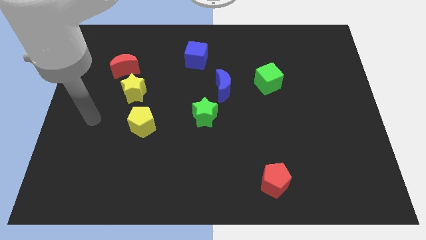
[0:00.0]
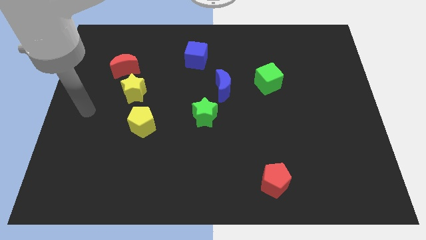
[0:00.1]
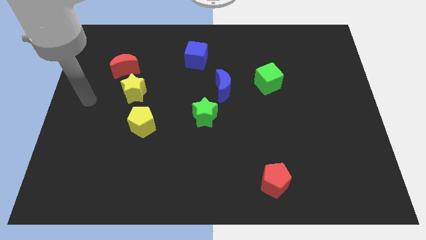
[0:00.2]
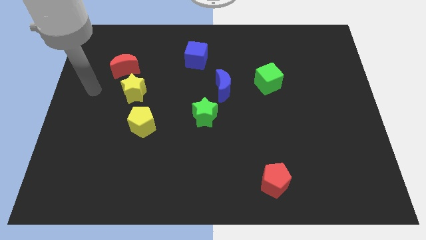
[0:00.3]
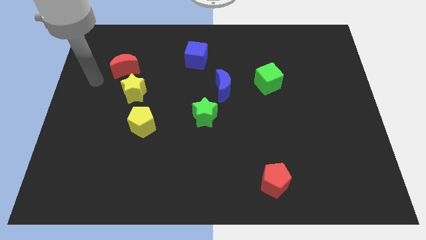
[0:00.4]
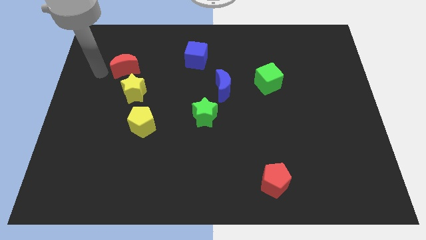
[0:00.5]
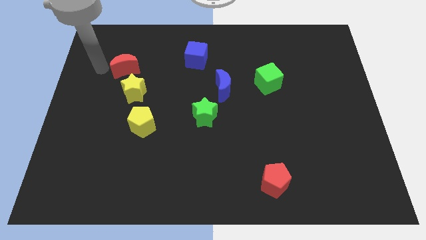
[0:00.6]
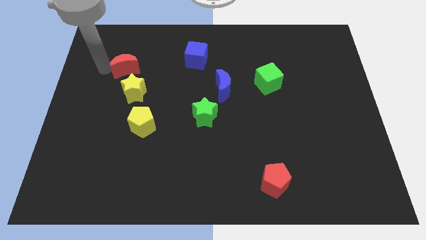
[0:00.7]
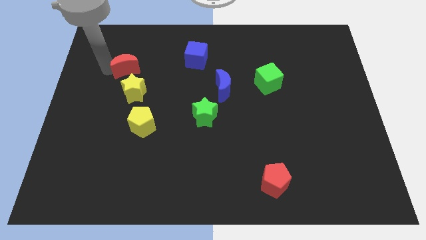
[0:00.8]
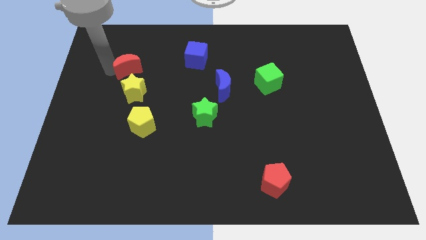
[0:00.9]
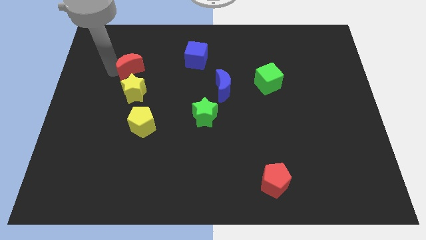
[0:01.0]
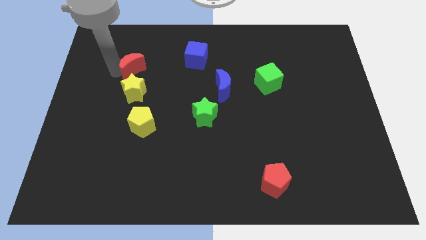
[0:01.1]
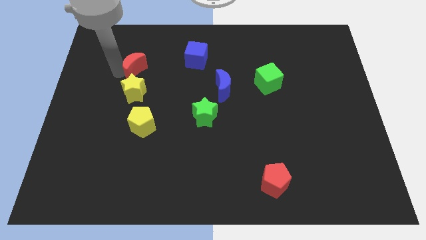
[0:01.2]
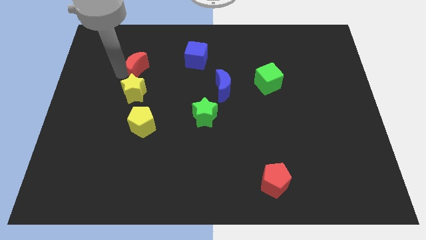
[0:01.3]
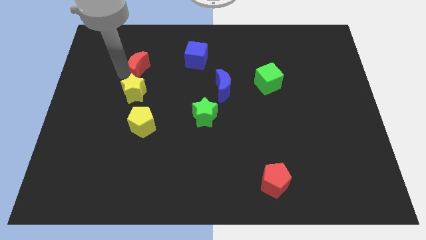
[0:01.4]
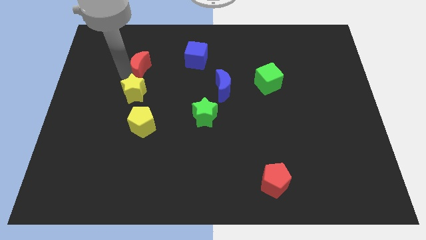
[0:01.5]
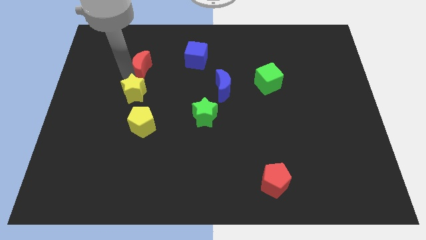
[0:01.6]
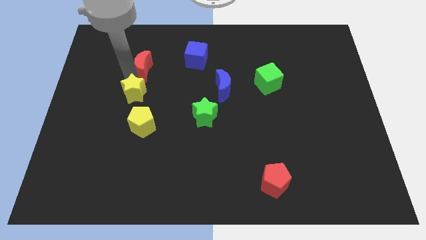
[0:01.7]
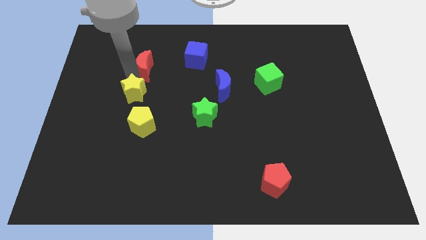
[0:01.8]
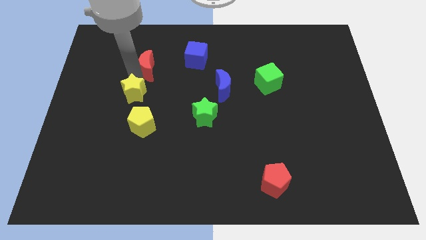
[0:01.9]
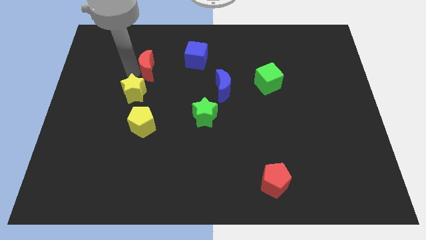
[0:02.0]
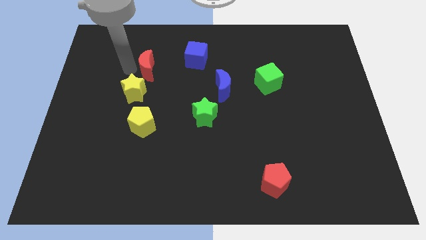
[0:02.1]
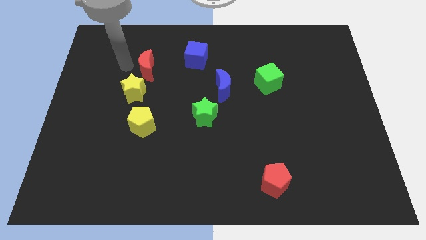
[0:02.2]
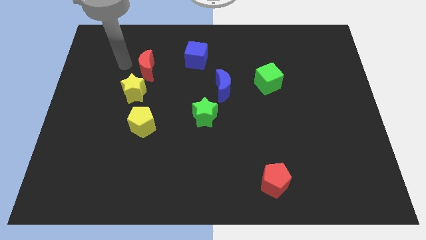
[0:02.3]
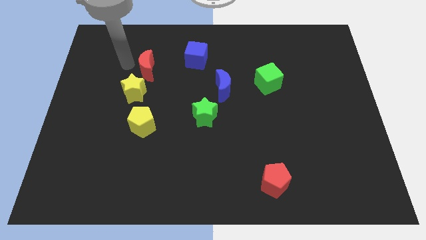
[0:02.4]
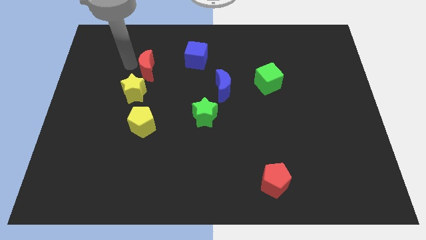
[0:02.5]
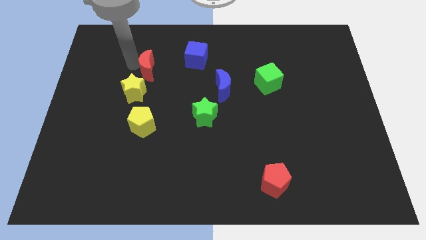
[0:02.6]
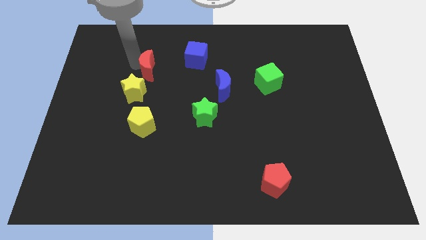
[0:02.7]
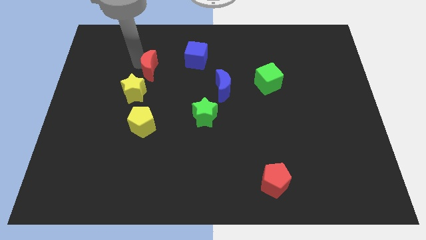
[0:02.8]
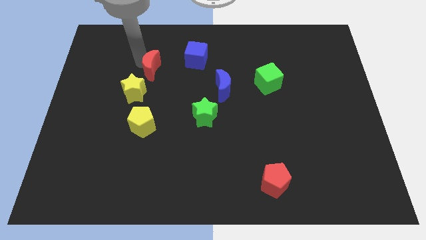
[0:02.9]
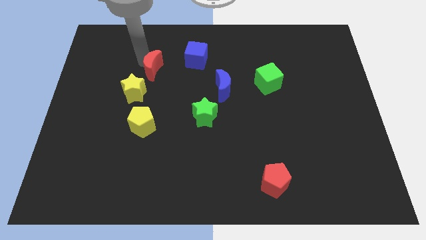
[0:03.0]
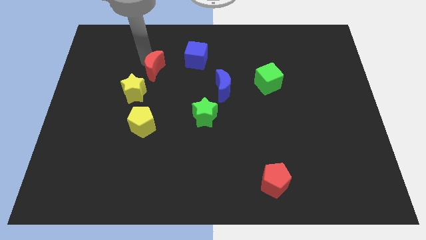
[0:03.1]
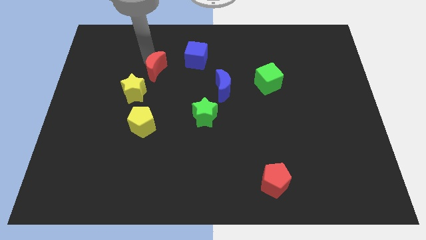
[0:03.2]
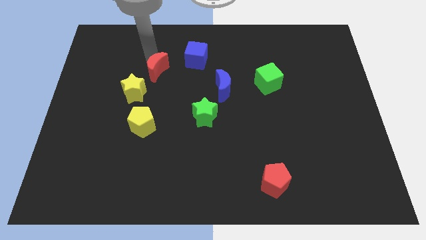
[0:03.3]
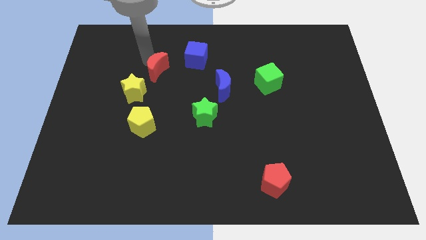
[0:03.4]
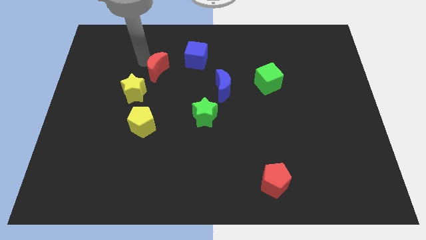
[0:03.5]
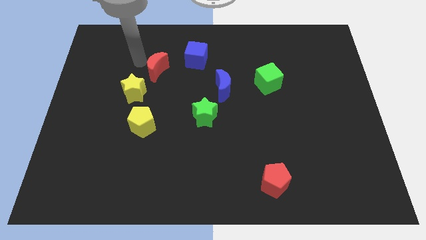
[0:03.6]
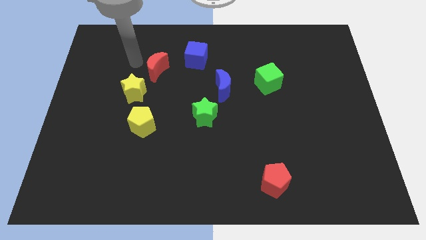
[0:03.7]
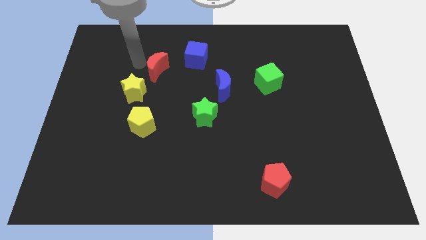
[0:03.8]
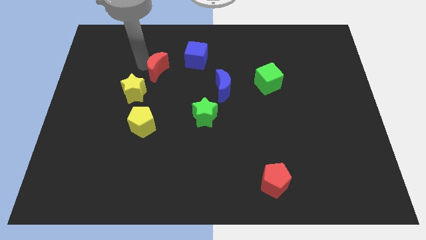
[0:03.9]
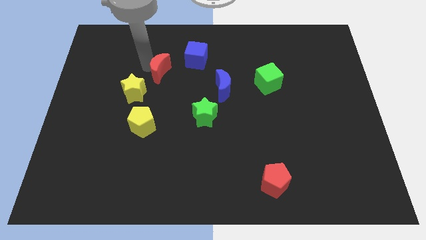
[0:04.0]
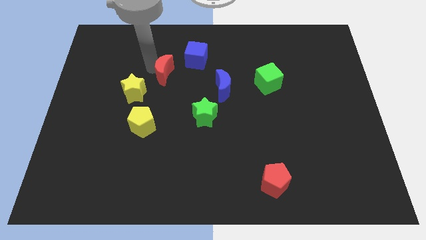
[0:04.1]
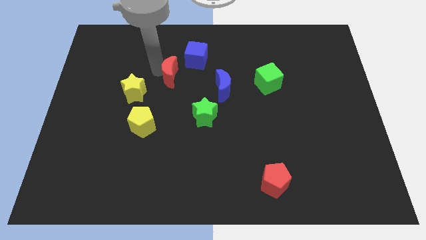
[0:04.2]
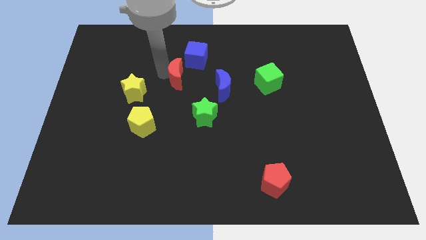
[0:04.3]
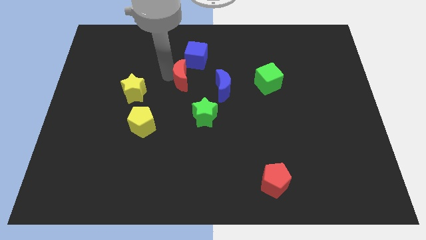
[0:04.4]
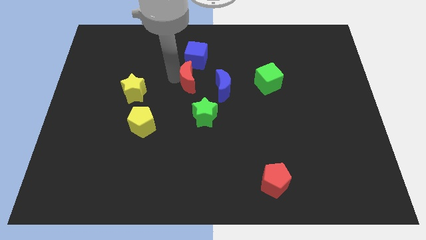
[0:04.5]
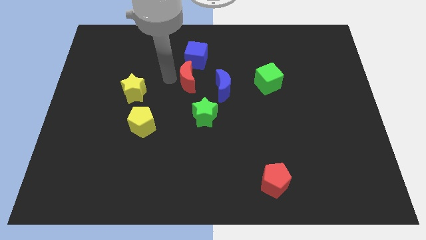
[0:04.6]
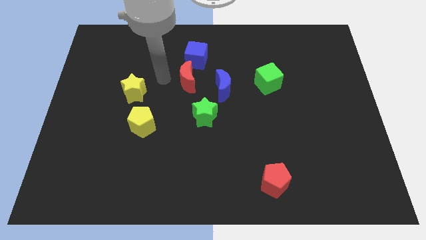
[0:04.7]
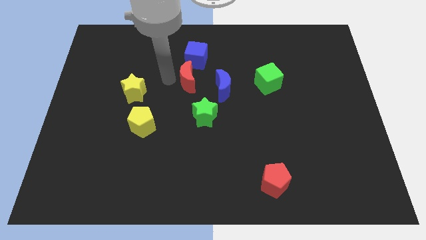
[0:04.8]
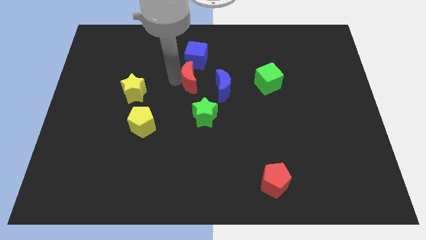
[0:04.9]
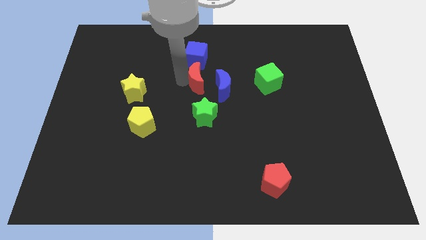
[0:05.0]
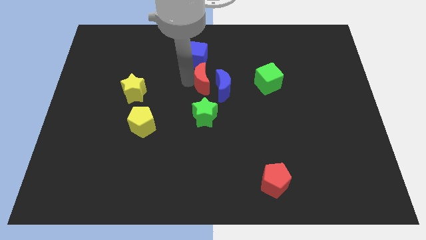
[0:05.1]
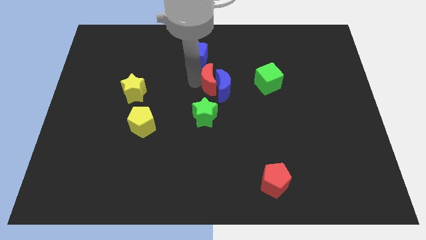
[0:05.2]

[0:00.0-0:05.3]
put the red moon to the left of the green cube

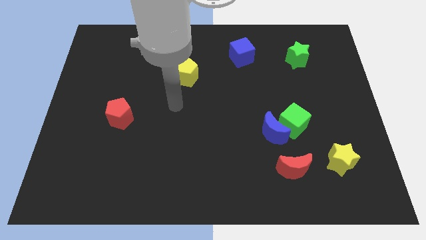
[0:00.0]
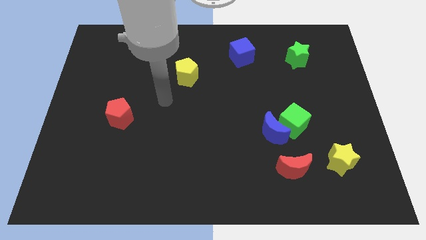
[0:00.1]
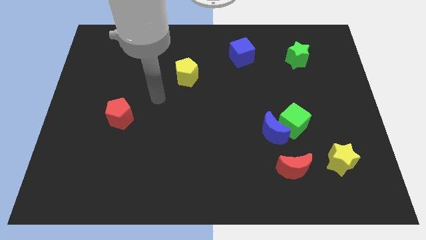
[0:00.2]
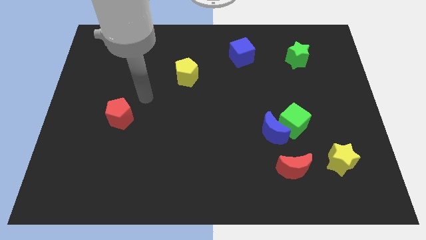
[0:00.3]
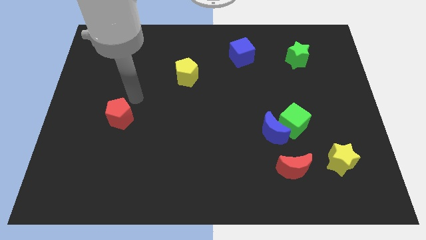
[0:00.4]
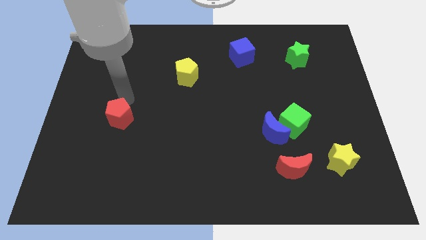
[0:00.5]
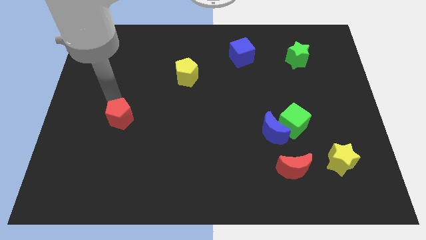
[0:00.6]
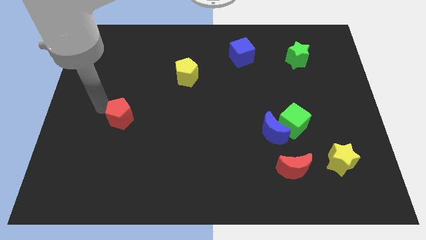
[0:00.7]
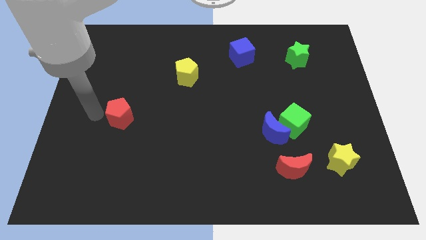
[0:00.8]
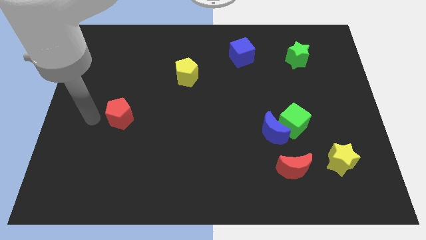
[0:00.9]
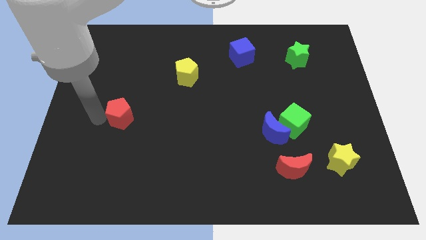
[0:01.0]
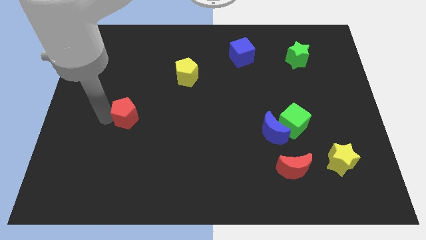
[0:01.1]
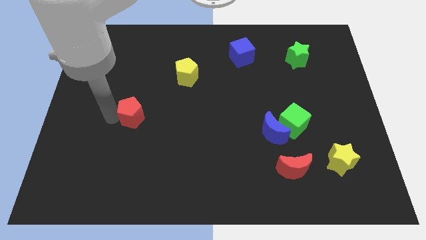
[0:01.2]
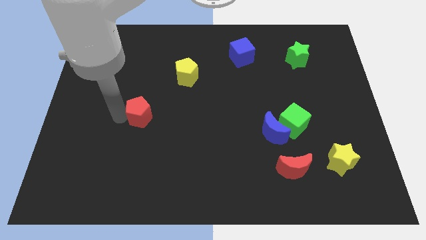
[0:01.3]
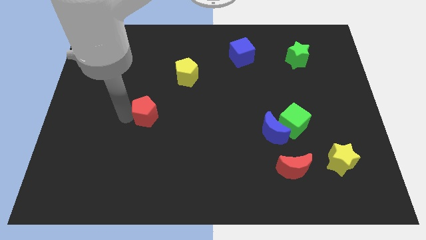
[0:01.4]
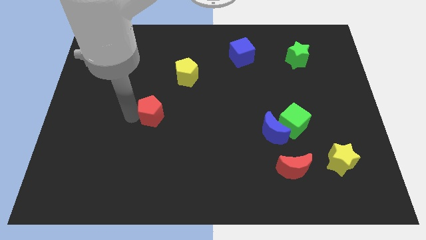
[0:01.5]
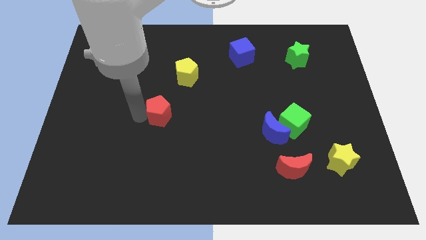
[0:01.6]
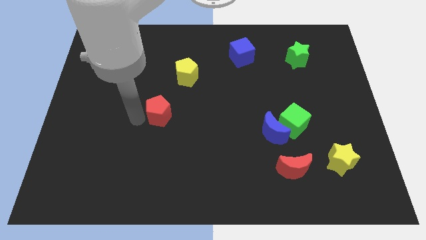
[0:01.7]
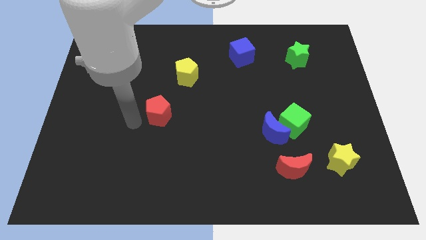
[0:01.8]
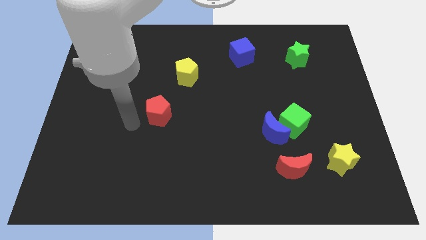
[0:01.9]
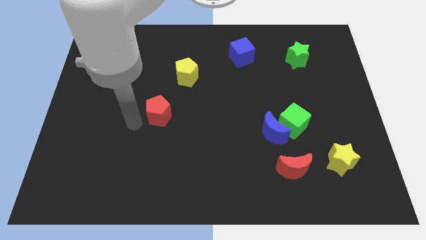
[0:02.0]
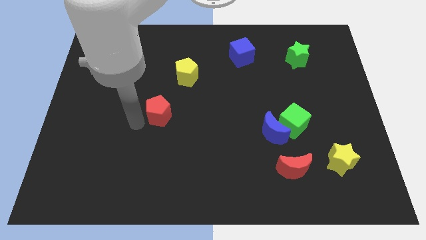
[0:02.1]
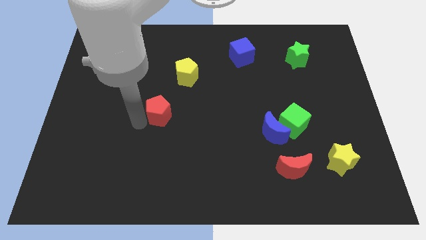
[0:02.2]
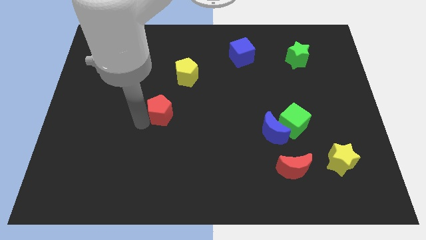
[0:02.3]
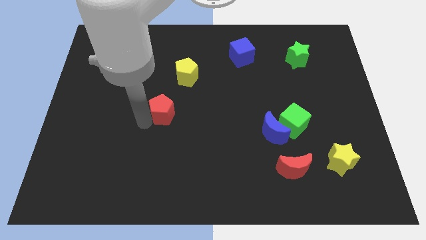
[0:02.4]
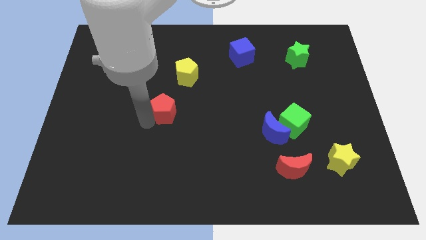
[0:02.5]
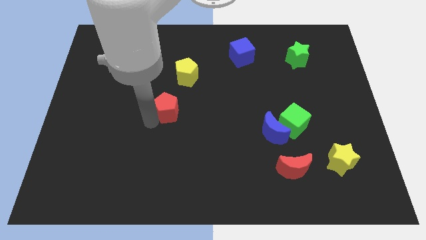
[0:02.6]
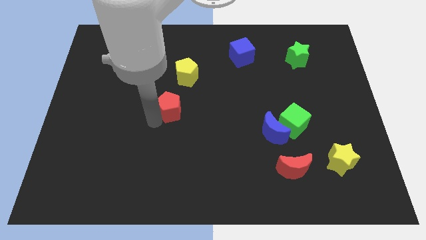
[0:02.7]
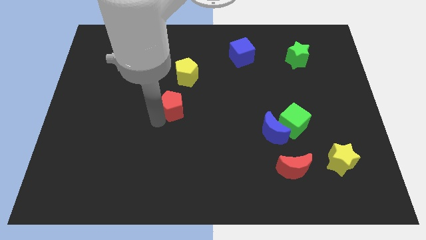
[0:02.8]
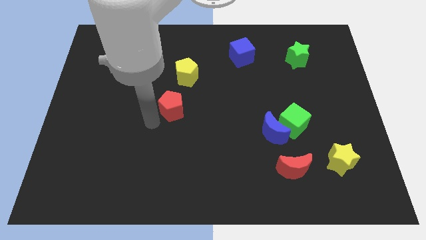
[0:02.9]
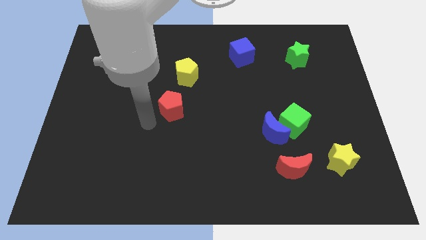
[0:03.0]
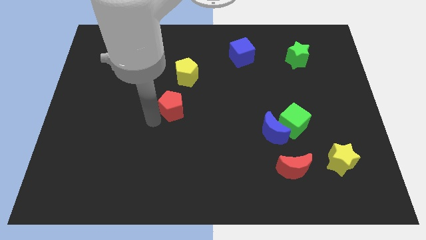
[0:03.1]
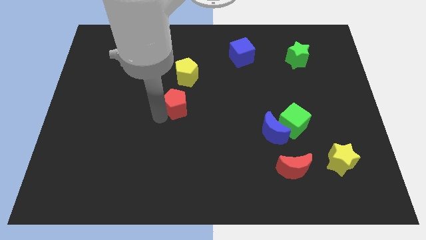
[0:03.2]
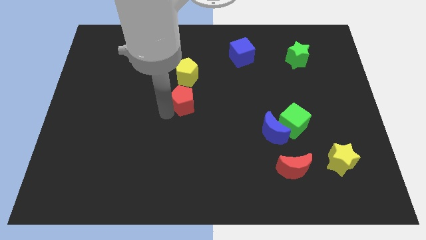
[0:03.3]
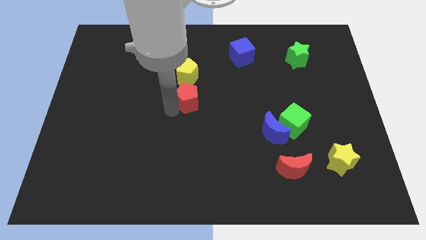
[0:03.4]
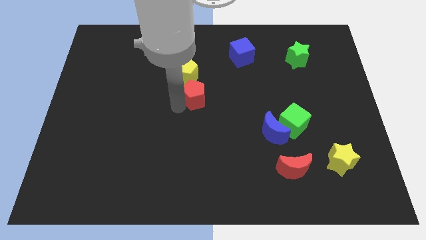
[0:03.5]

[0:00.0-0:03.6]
push the red pentagon diagonally down and to the right of the yellow pentagon
